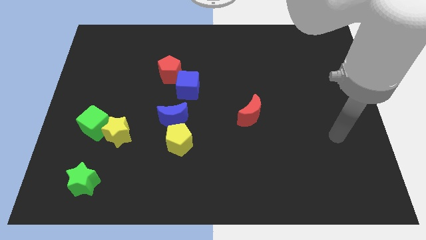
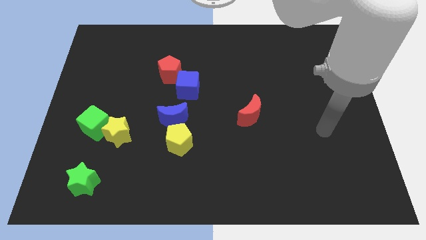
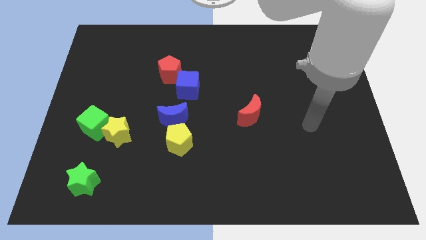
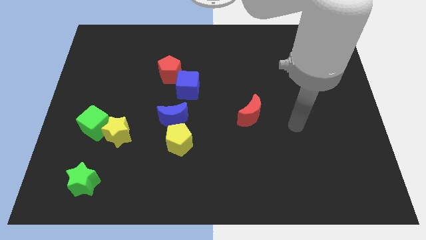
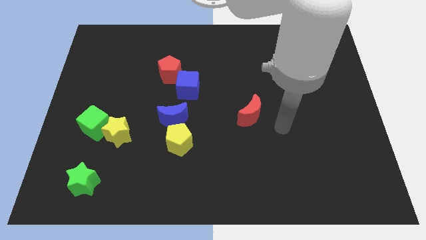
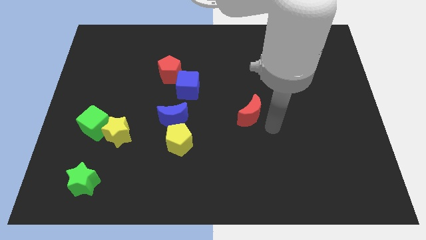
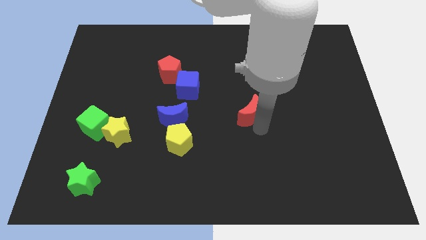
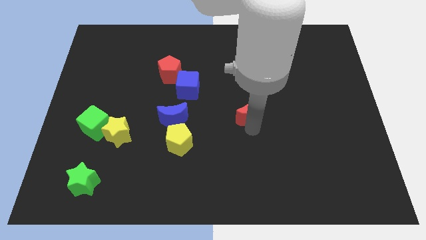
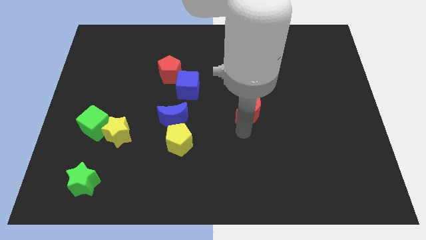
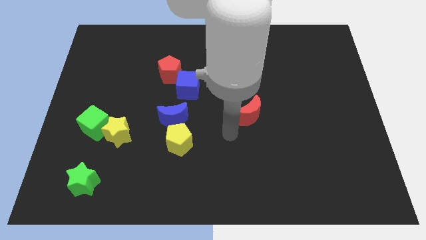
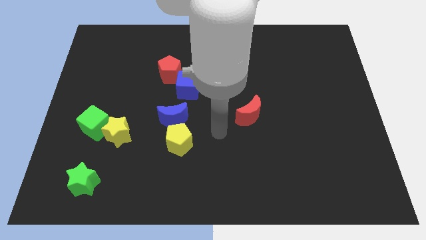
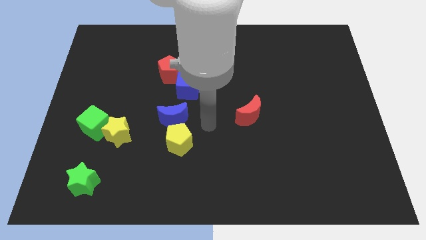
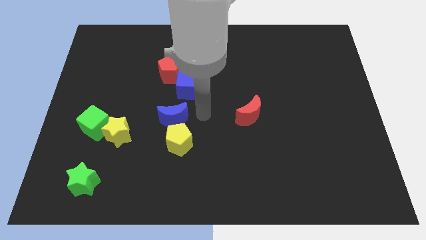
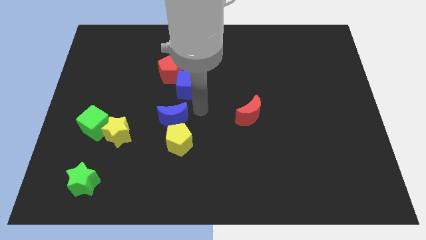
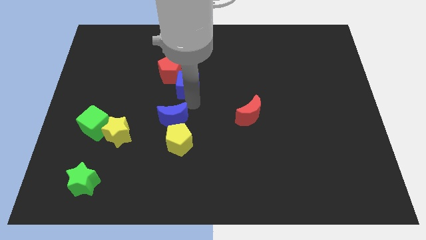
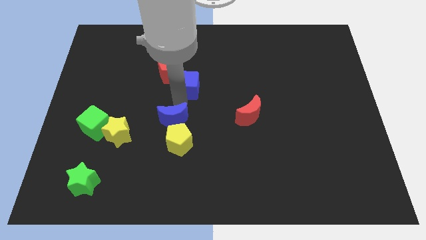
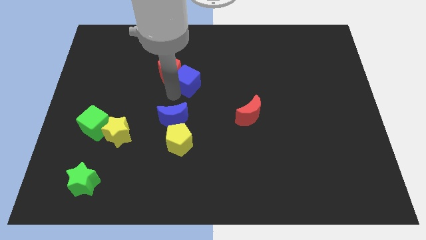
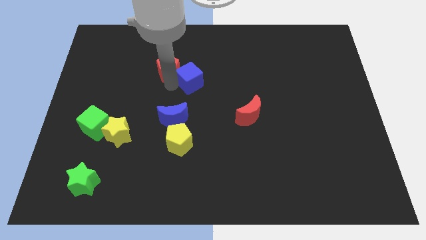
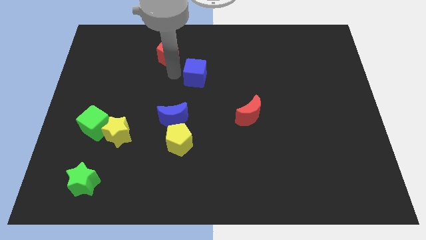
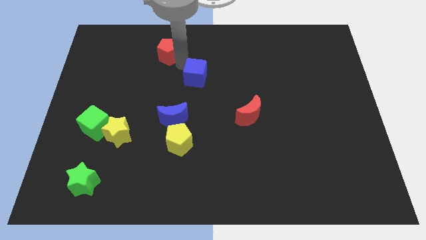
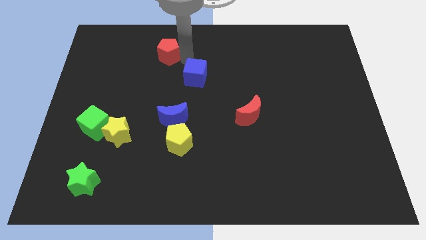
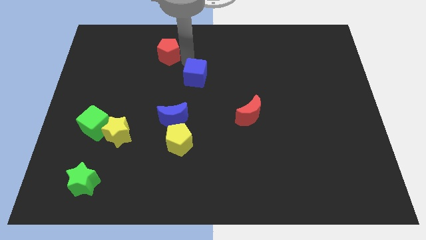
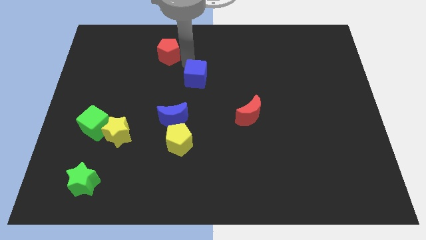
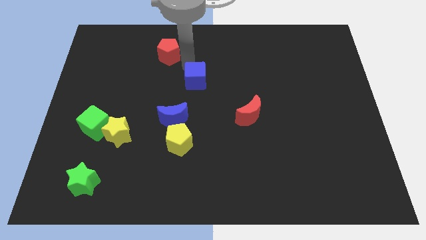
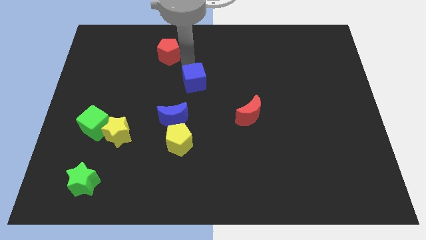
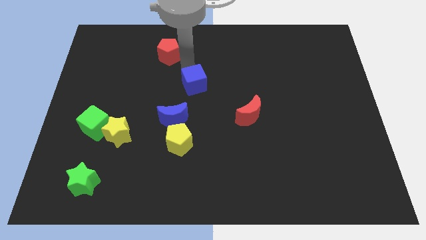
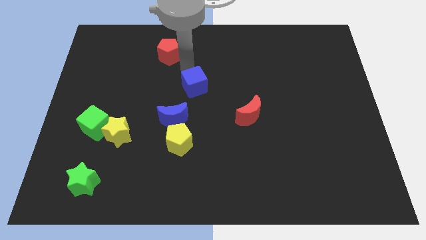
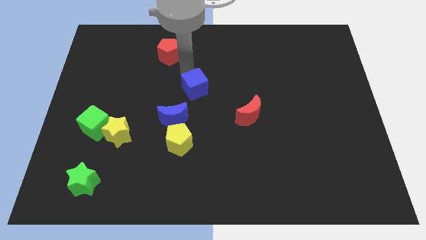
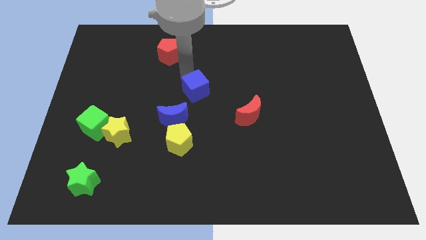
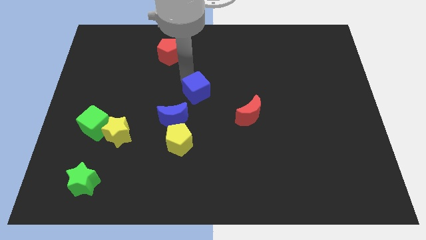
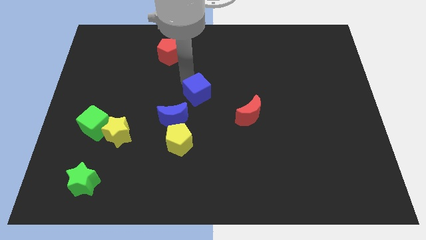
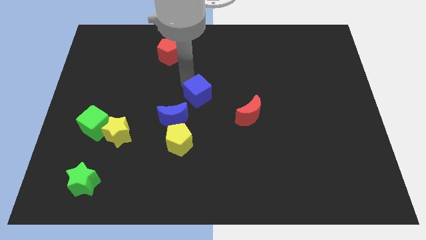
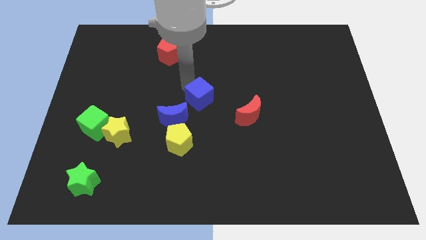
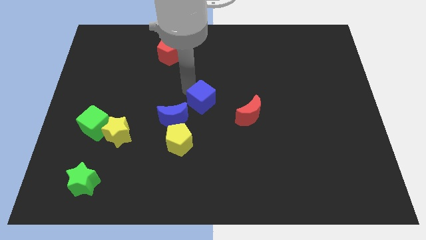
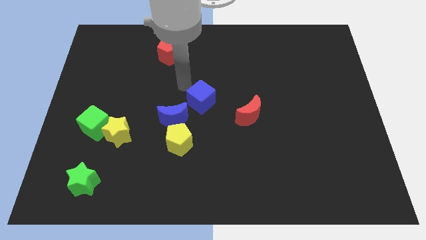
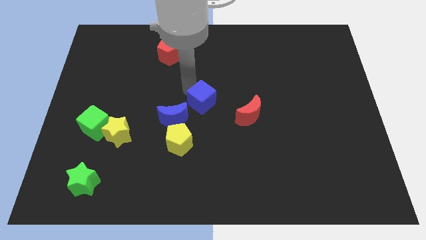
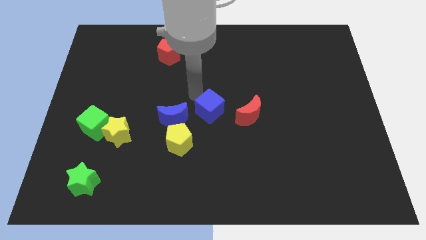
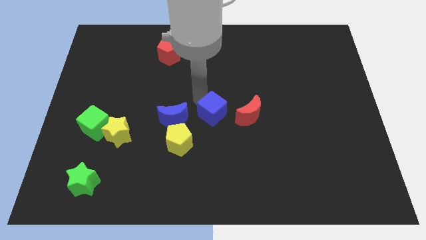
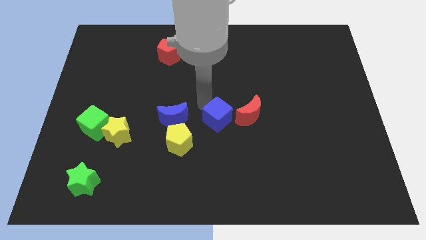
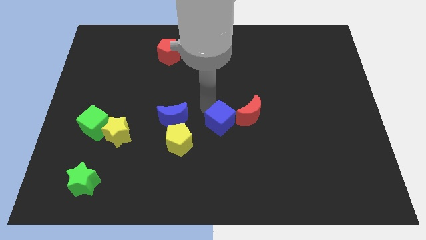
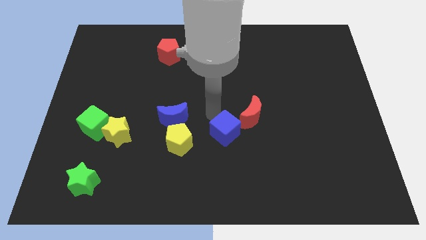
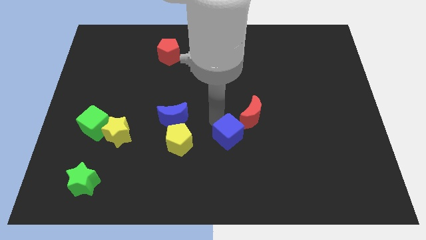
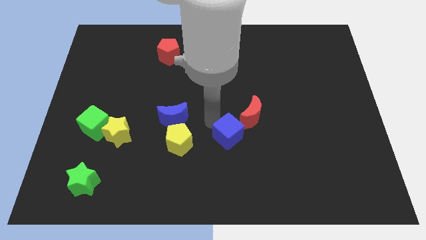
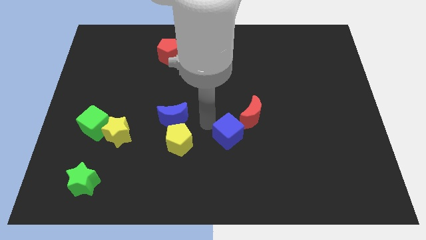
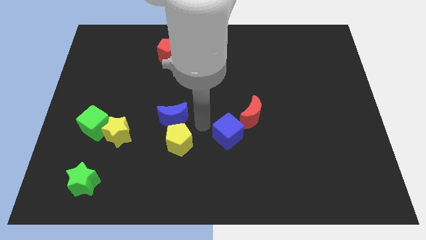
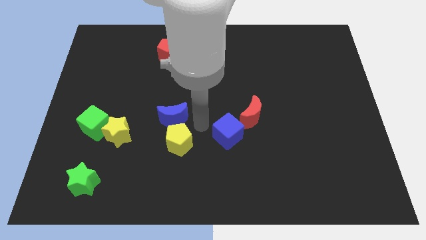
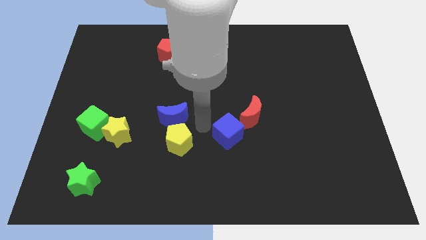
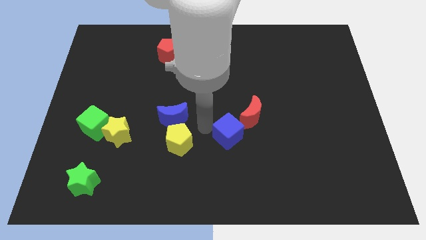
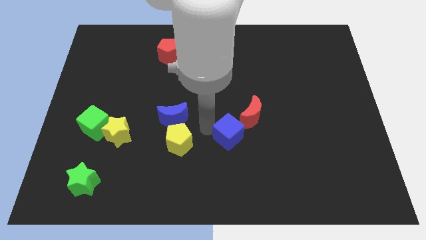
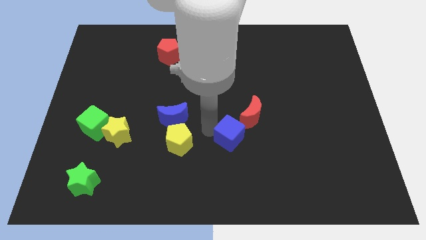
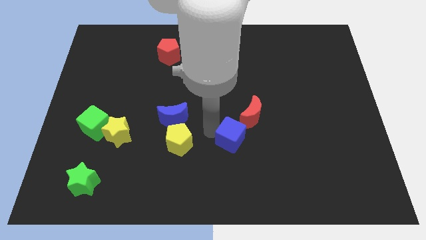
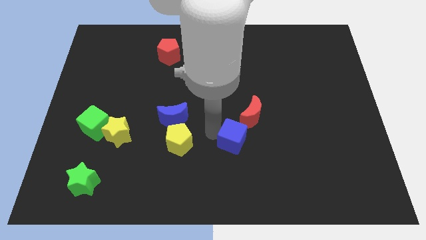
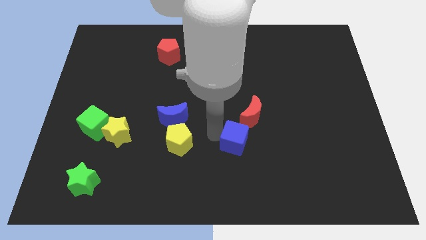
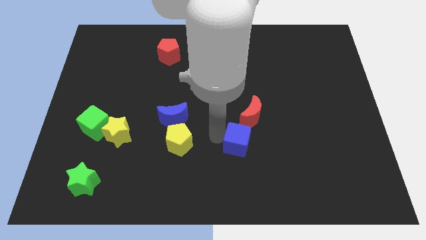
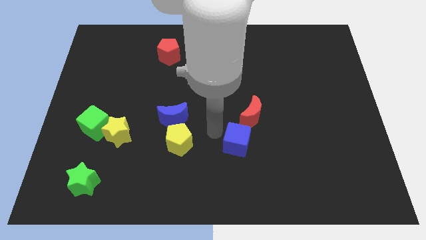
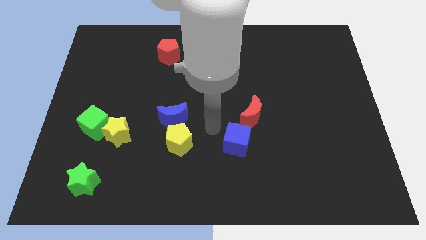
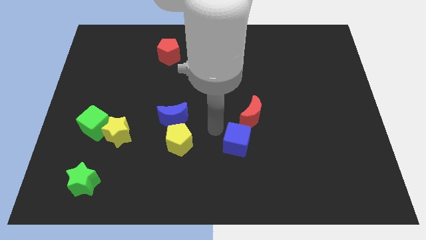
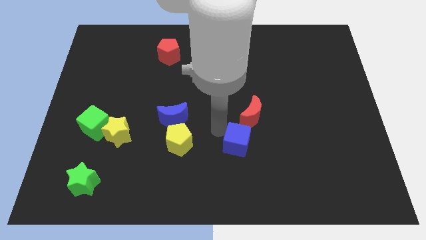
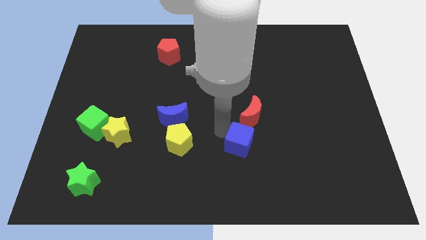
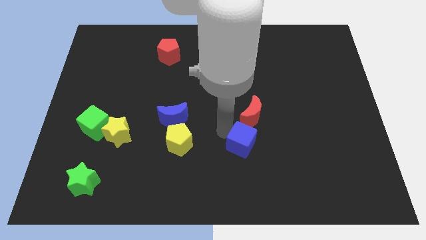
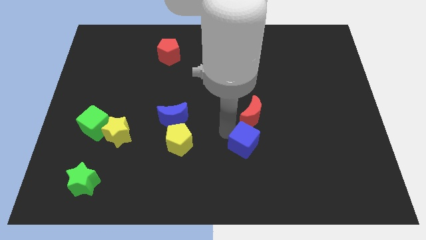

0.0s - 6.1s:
move the blue cube down and then to the right

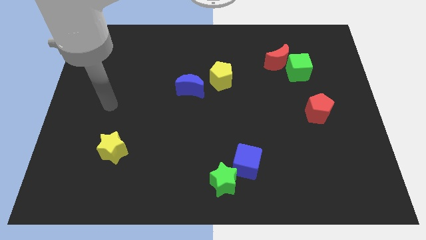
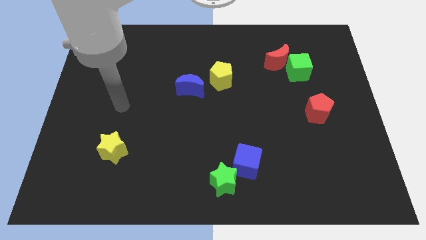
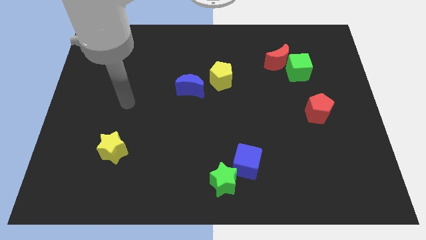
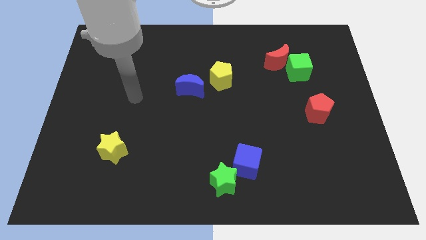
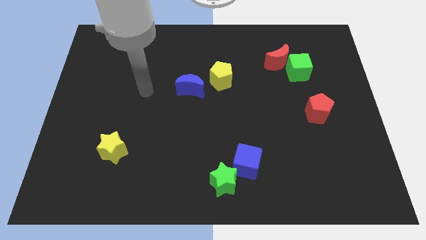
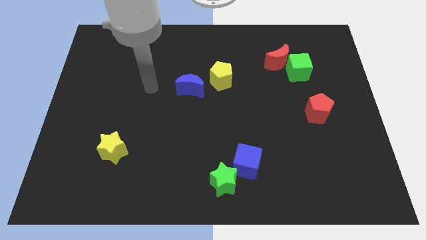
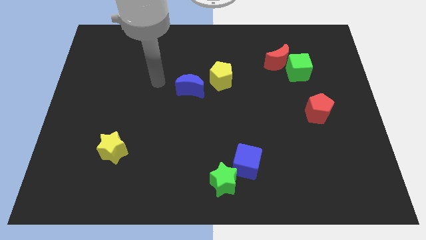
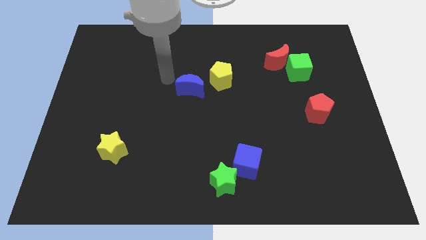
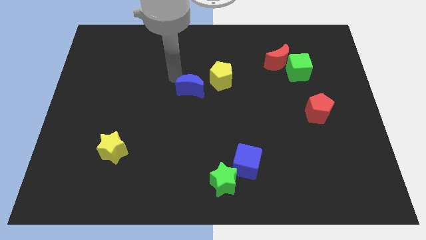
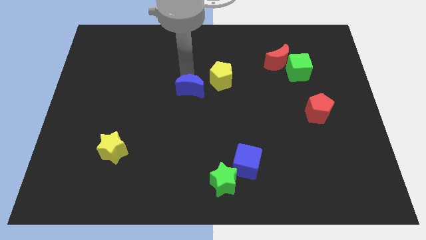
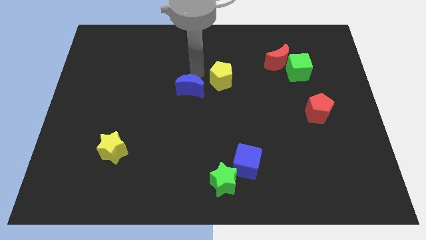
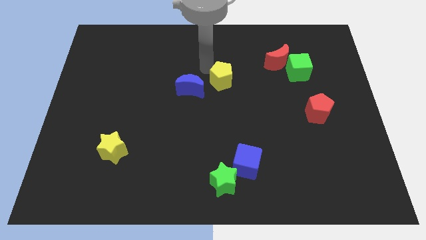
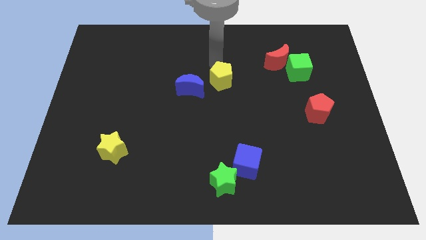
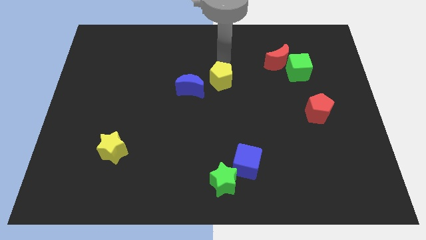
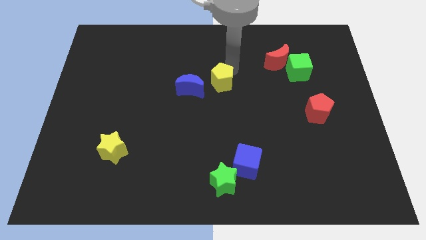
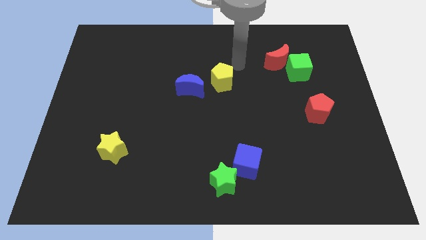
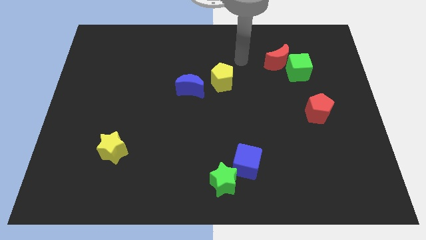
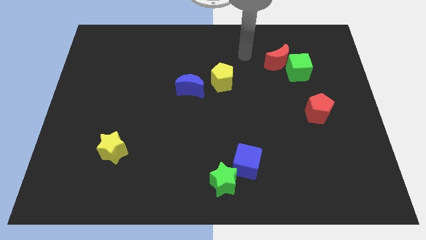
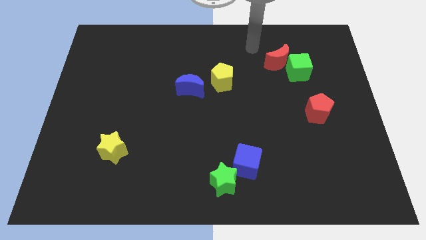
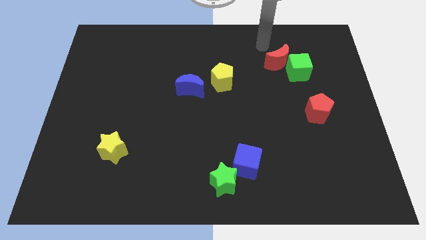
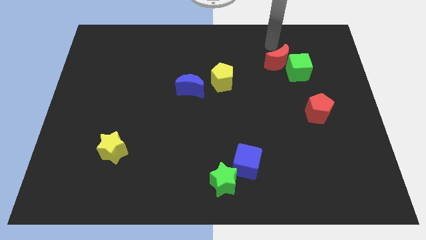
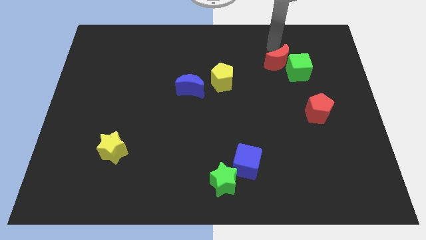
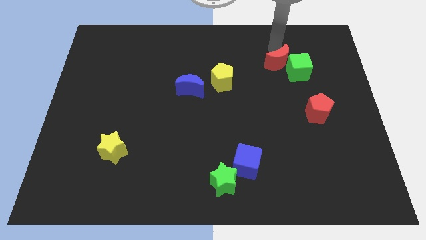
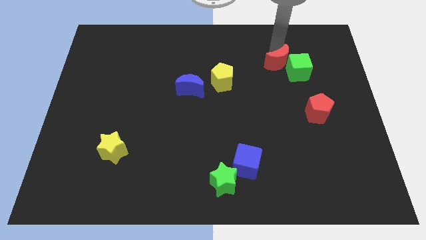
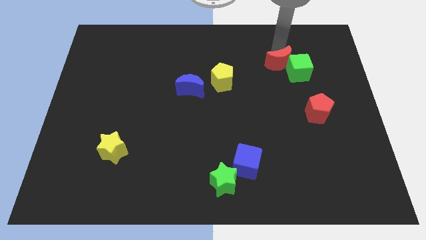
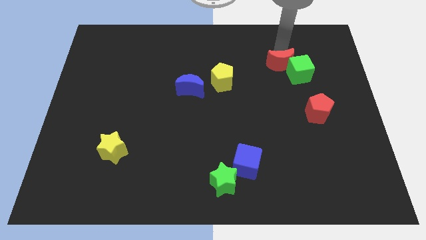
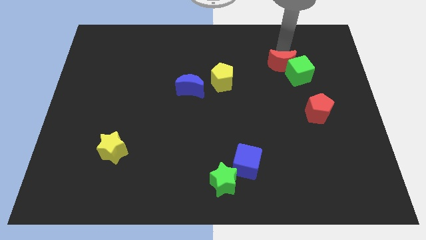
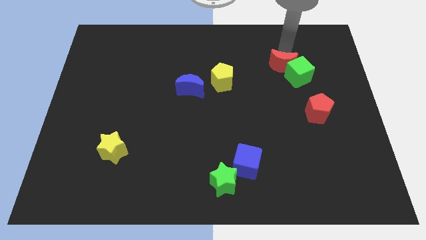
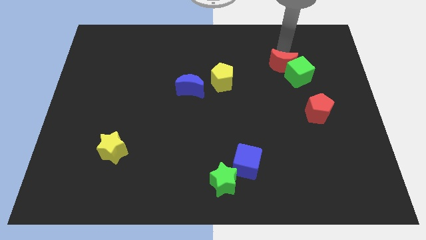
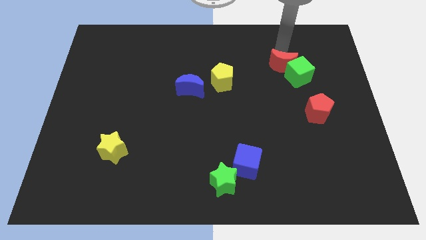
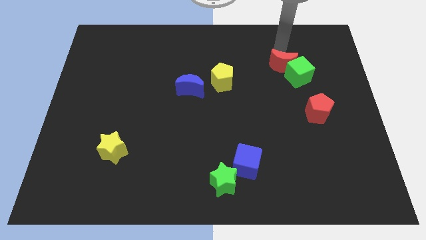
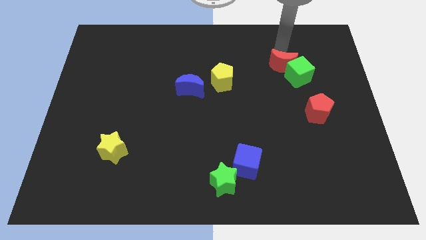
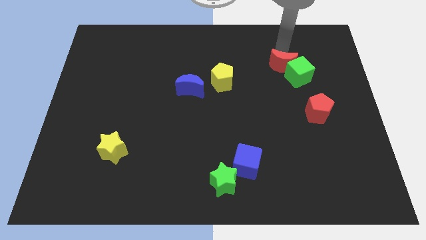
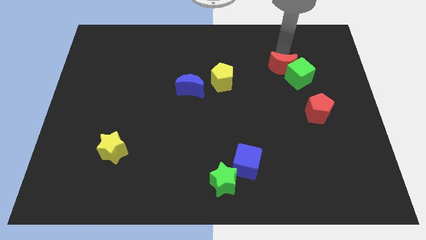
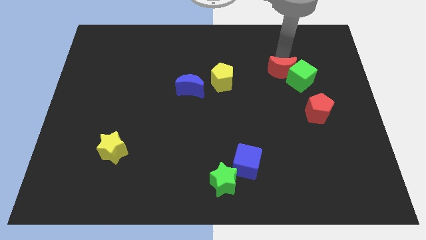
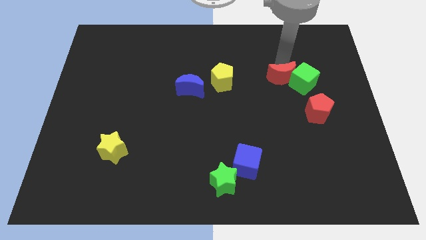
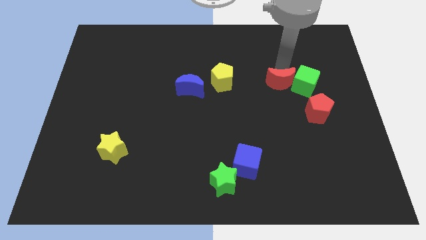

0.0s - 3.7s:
slightly push the red moon downwards
